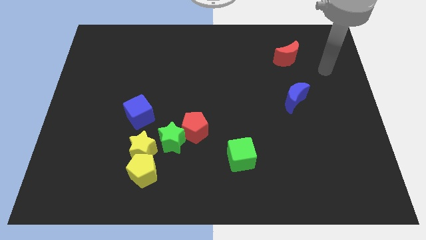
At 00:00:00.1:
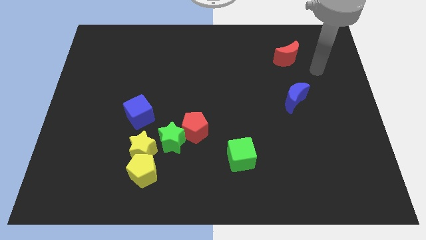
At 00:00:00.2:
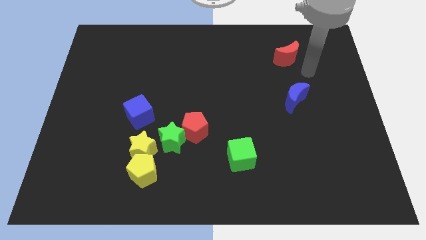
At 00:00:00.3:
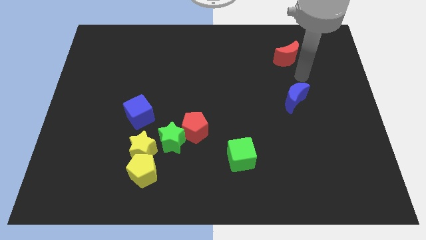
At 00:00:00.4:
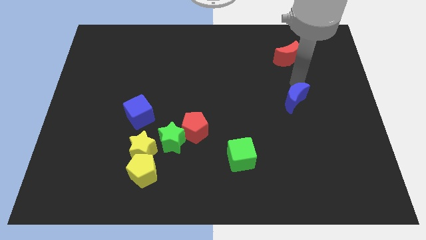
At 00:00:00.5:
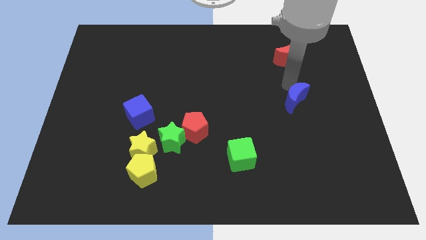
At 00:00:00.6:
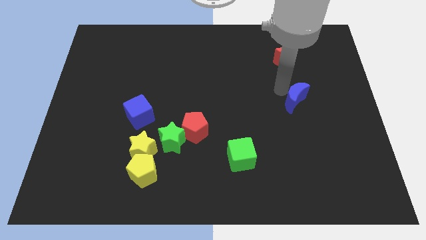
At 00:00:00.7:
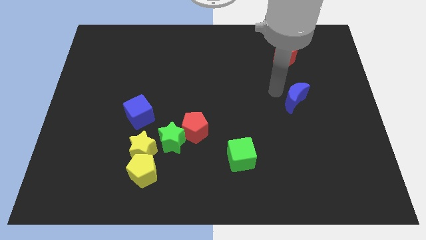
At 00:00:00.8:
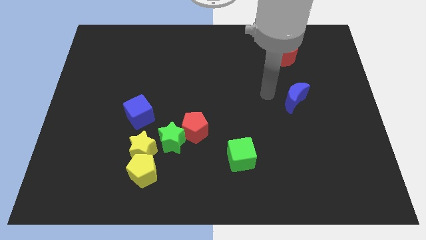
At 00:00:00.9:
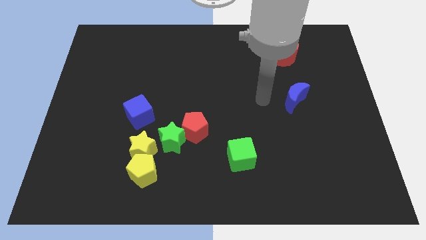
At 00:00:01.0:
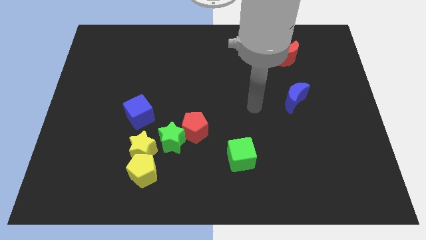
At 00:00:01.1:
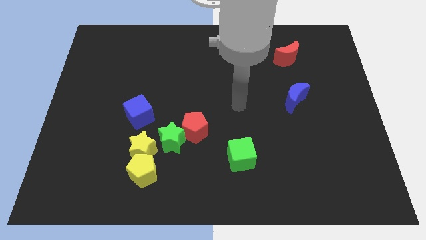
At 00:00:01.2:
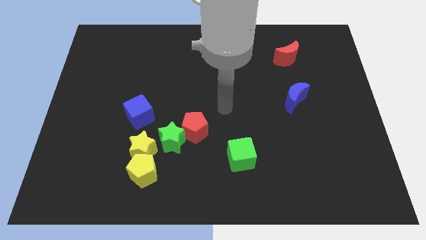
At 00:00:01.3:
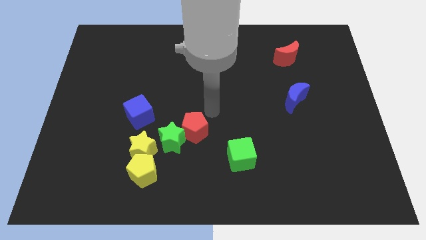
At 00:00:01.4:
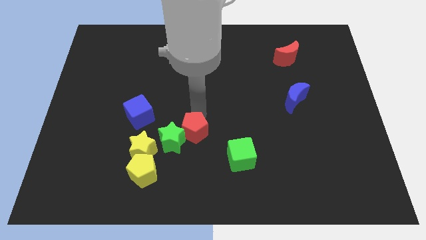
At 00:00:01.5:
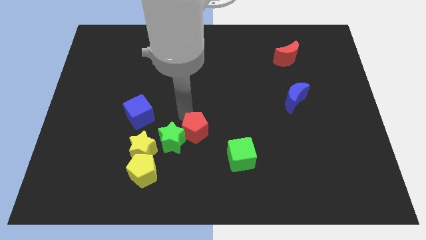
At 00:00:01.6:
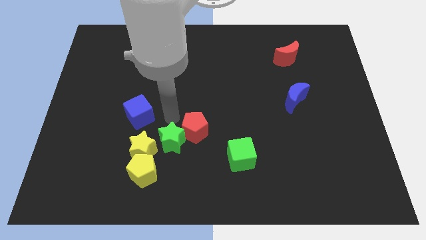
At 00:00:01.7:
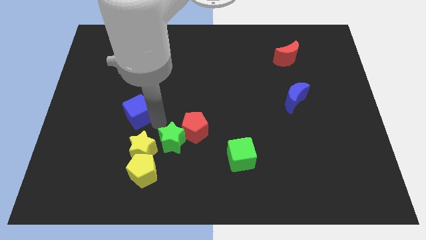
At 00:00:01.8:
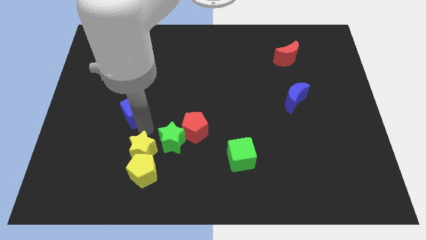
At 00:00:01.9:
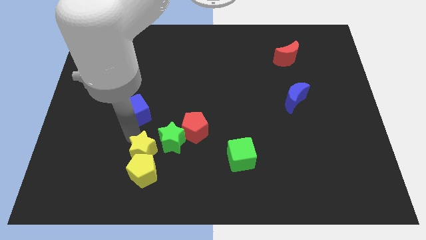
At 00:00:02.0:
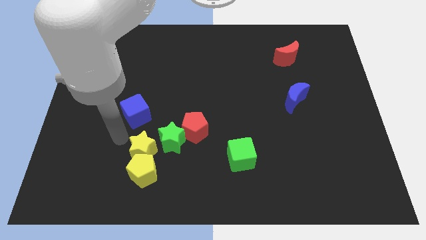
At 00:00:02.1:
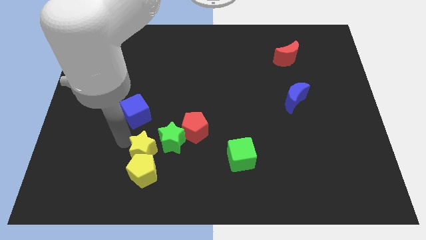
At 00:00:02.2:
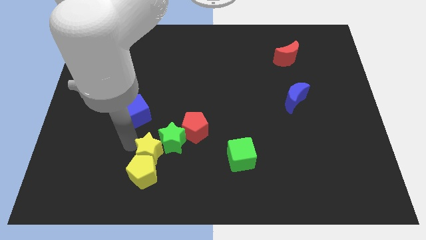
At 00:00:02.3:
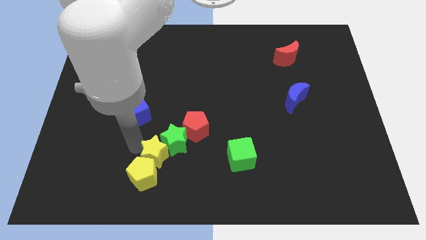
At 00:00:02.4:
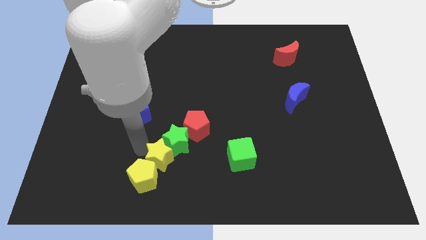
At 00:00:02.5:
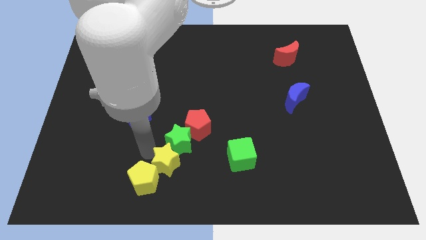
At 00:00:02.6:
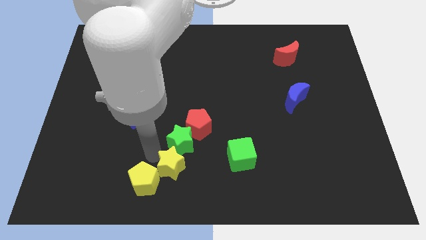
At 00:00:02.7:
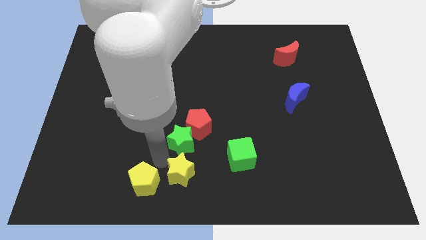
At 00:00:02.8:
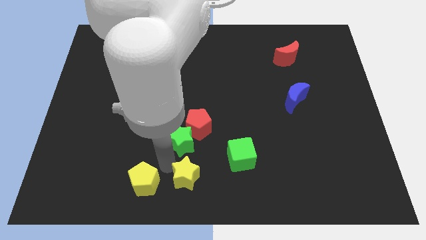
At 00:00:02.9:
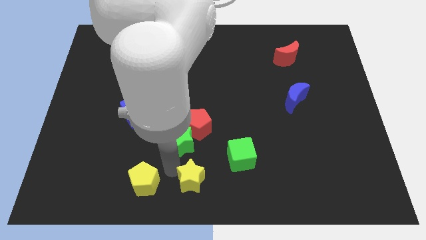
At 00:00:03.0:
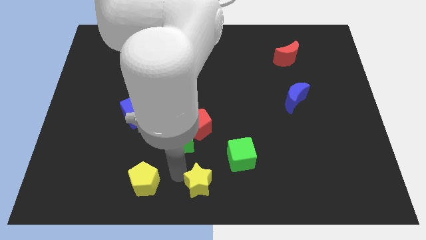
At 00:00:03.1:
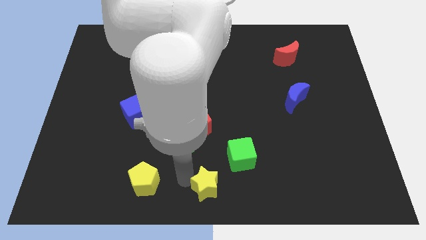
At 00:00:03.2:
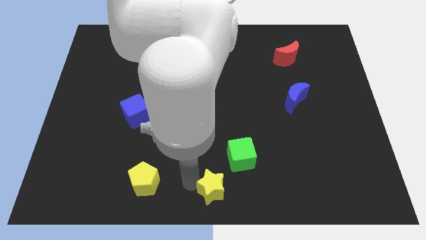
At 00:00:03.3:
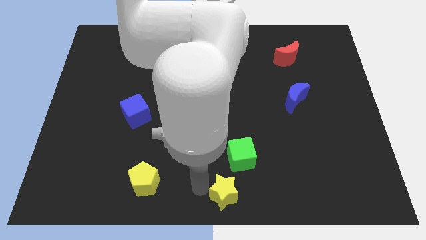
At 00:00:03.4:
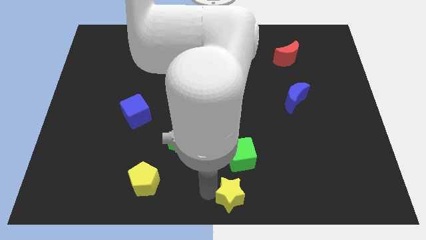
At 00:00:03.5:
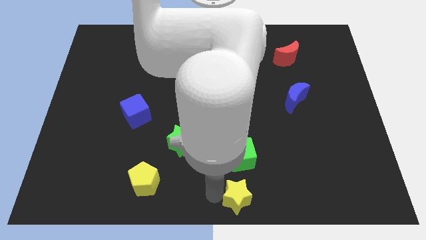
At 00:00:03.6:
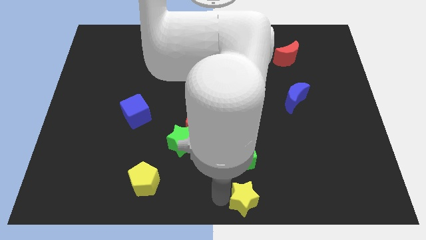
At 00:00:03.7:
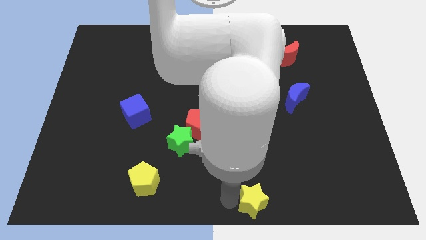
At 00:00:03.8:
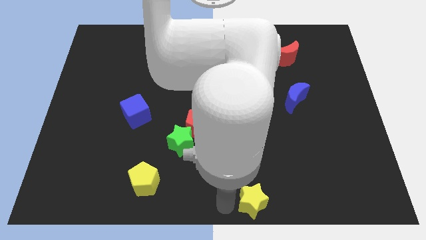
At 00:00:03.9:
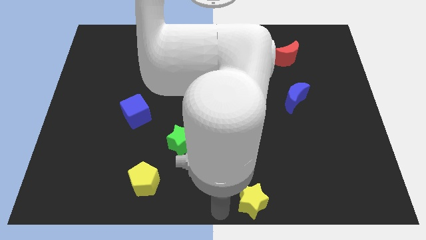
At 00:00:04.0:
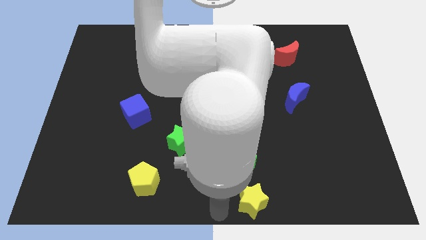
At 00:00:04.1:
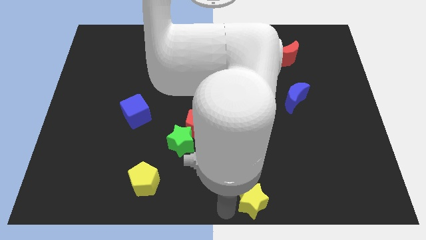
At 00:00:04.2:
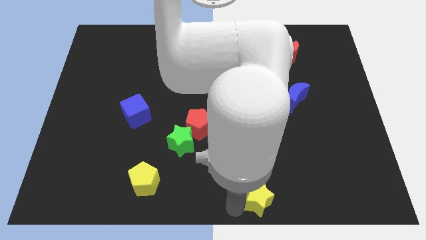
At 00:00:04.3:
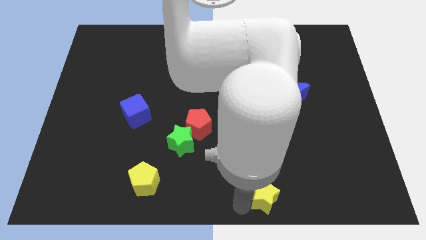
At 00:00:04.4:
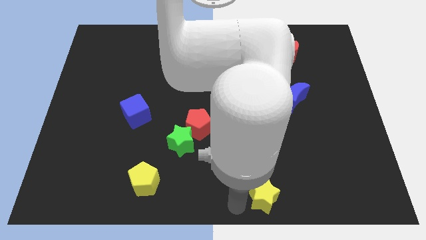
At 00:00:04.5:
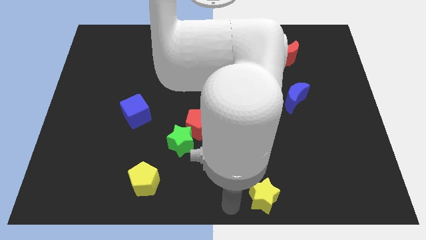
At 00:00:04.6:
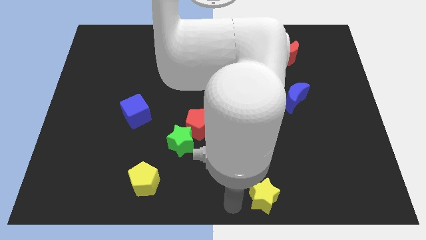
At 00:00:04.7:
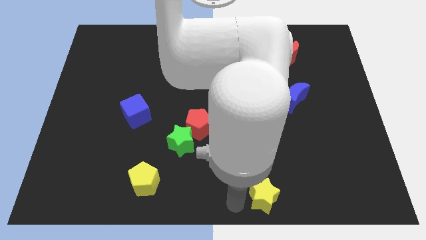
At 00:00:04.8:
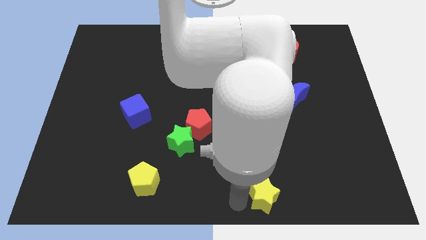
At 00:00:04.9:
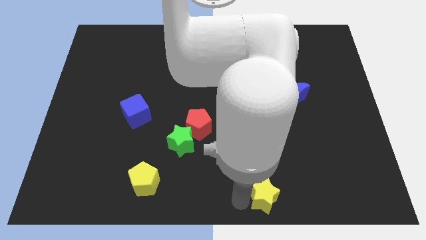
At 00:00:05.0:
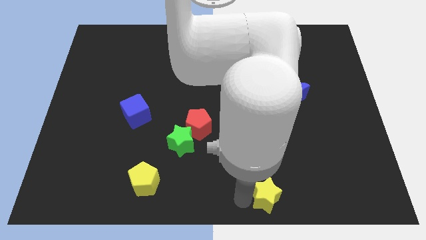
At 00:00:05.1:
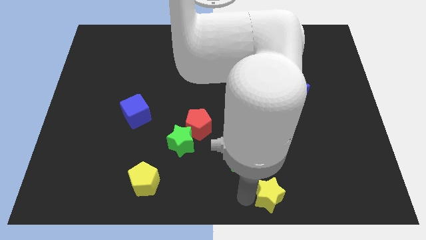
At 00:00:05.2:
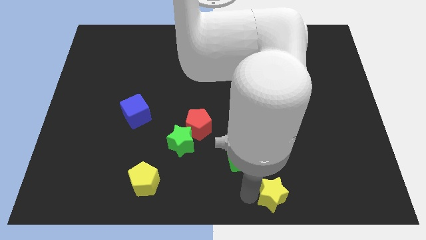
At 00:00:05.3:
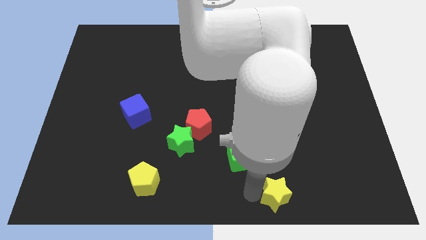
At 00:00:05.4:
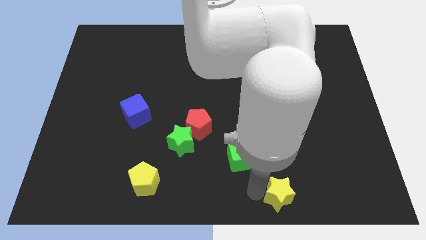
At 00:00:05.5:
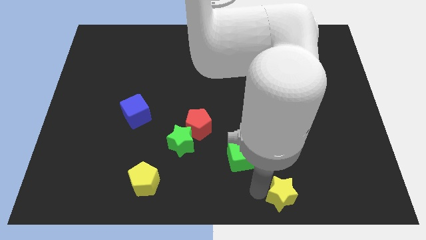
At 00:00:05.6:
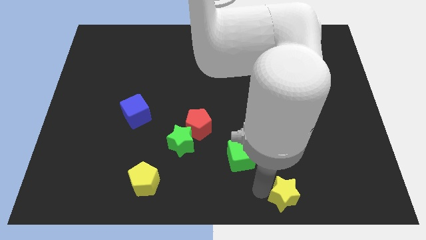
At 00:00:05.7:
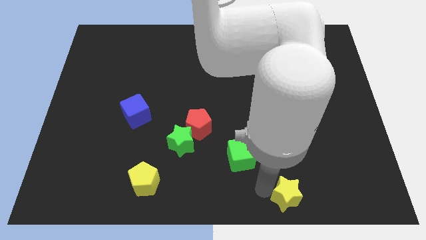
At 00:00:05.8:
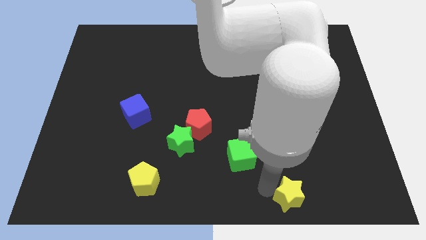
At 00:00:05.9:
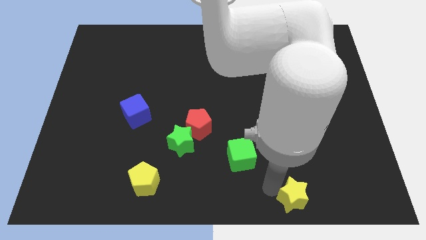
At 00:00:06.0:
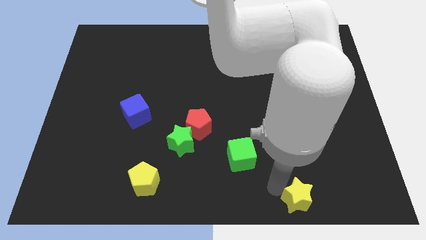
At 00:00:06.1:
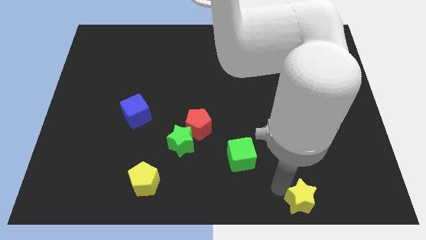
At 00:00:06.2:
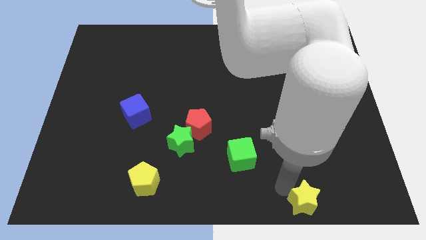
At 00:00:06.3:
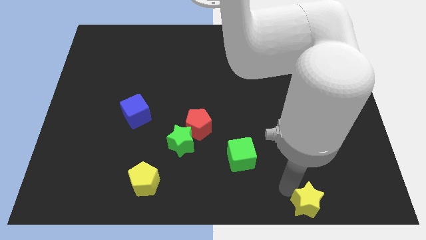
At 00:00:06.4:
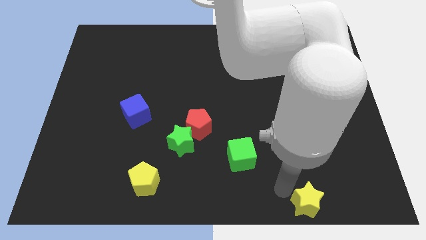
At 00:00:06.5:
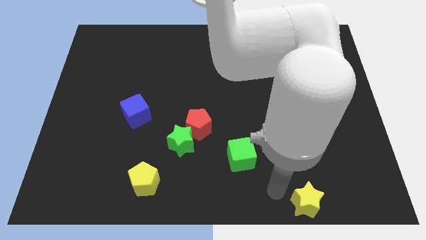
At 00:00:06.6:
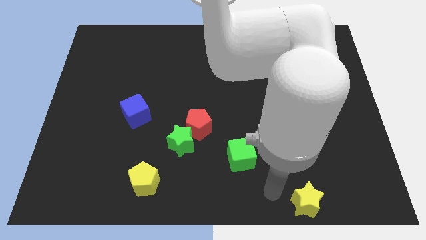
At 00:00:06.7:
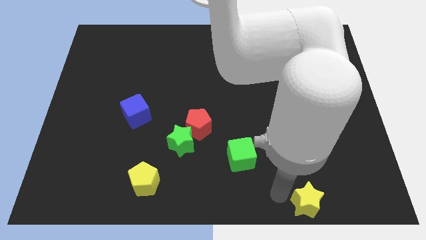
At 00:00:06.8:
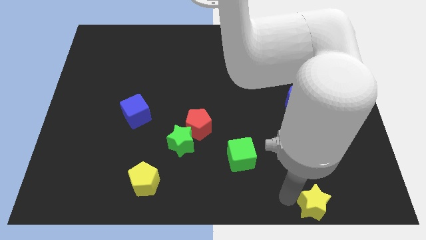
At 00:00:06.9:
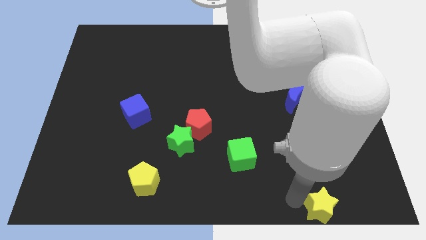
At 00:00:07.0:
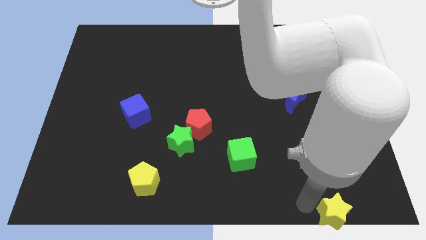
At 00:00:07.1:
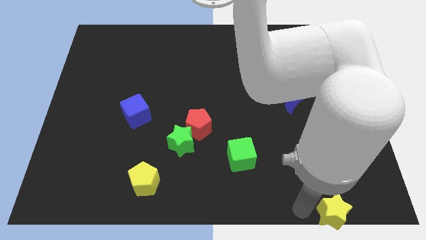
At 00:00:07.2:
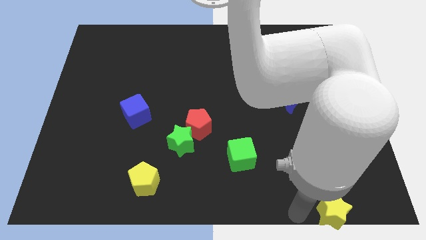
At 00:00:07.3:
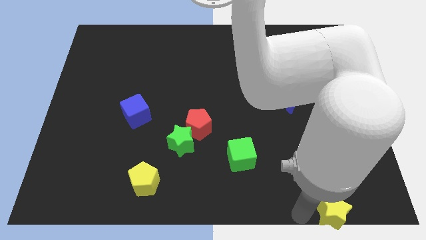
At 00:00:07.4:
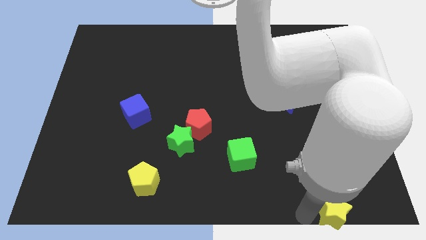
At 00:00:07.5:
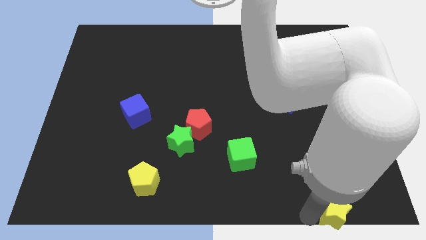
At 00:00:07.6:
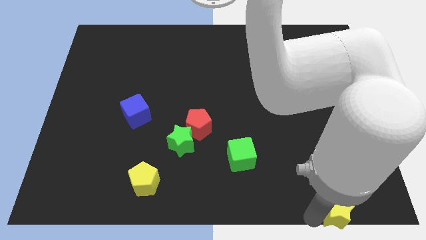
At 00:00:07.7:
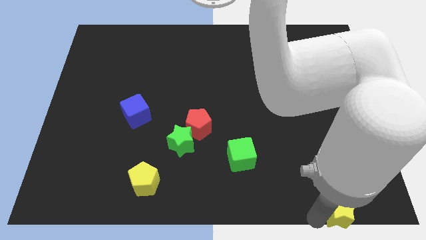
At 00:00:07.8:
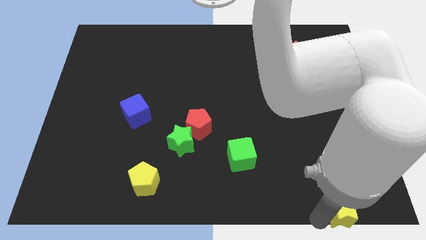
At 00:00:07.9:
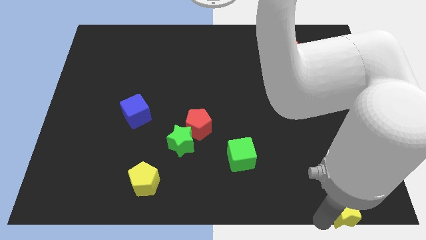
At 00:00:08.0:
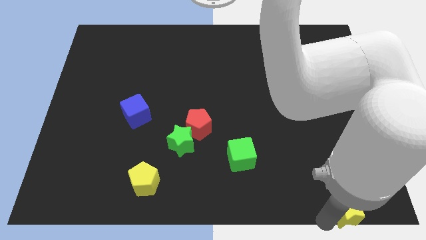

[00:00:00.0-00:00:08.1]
move the yellow star to the bottom right
